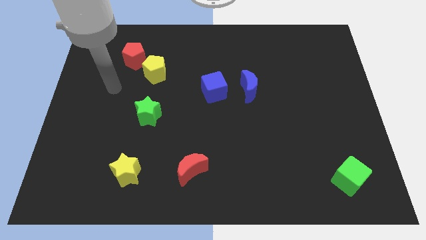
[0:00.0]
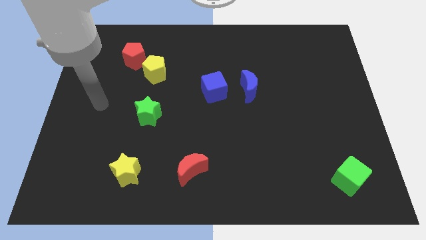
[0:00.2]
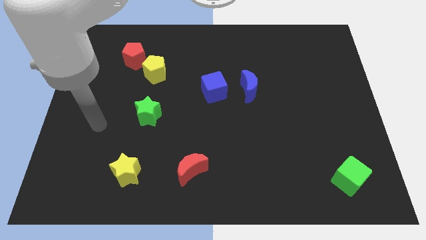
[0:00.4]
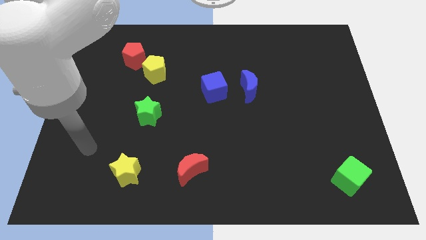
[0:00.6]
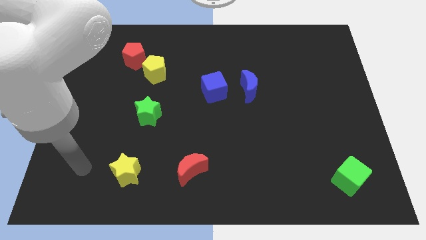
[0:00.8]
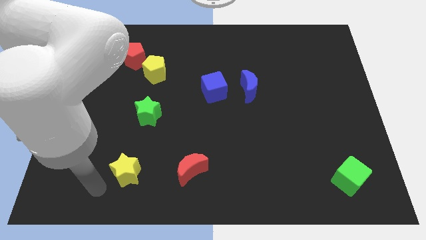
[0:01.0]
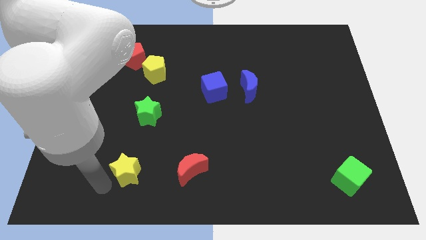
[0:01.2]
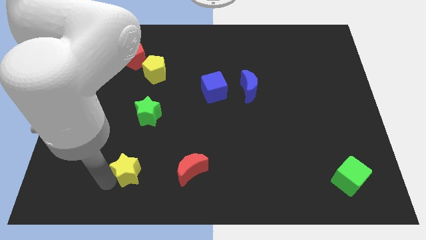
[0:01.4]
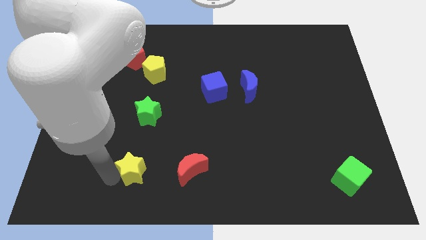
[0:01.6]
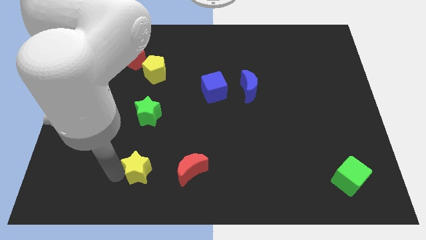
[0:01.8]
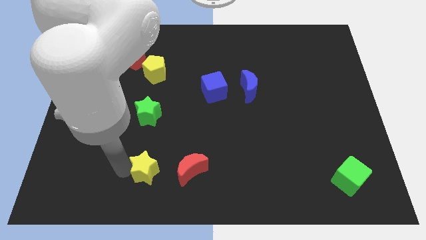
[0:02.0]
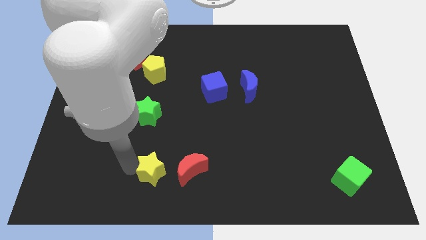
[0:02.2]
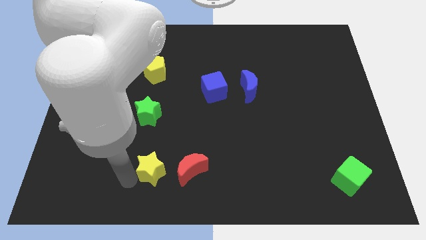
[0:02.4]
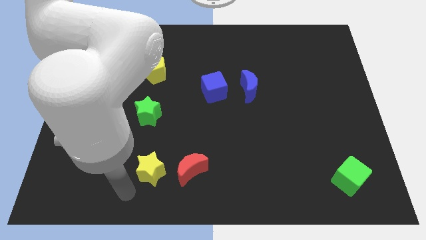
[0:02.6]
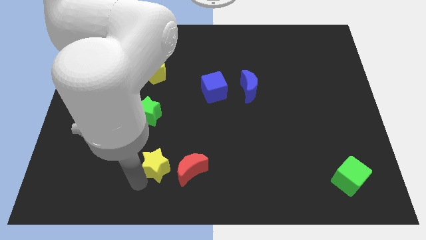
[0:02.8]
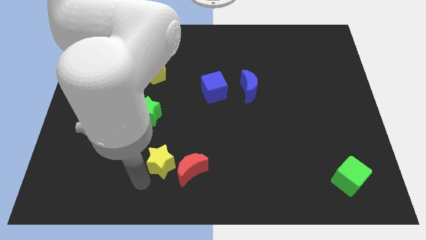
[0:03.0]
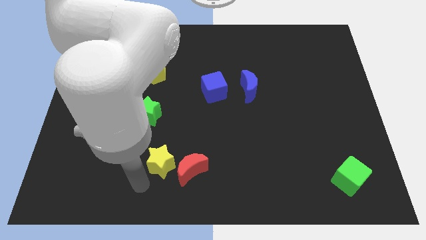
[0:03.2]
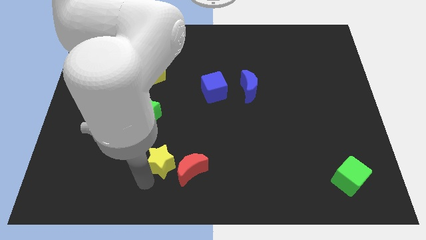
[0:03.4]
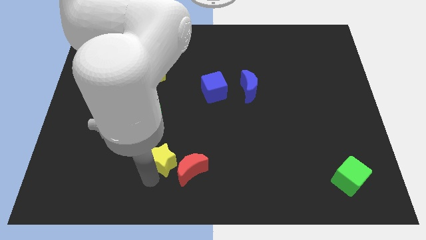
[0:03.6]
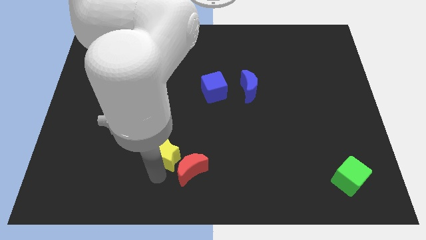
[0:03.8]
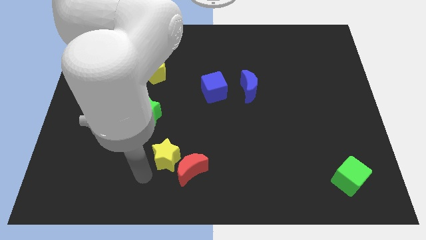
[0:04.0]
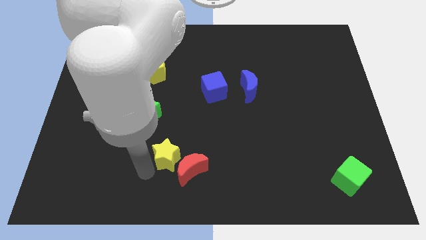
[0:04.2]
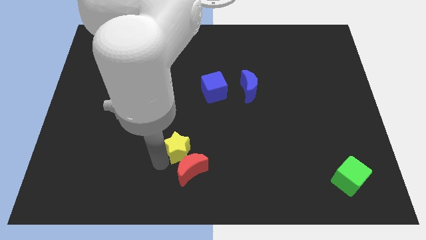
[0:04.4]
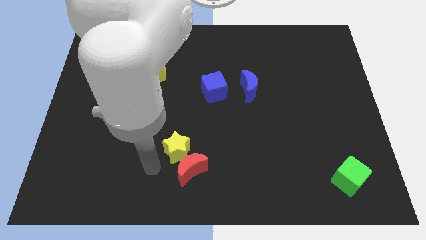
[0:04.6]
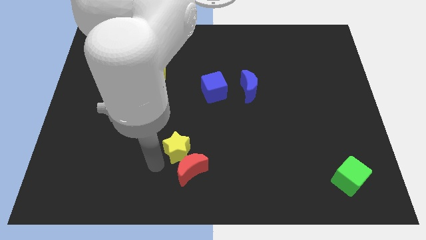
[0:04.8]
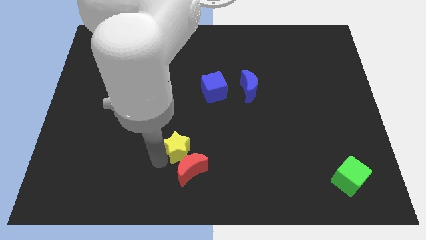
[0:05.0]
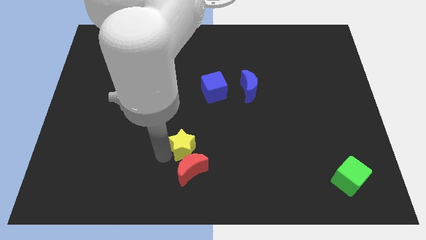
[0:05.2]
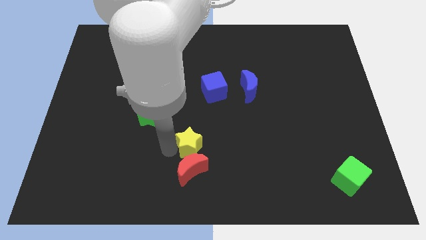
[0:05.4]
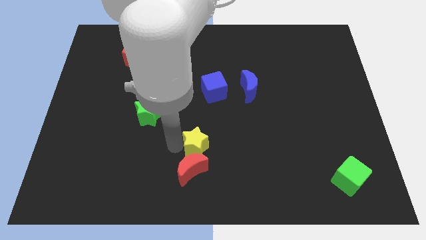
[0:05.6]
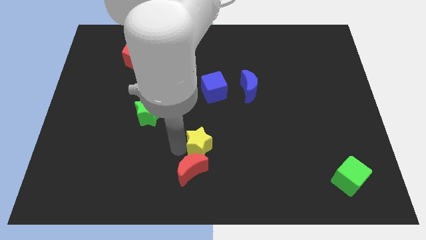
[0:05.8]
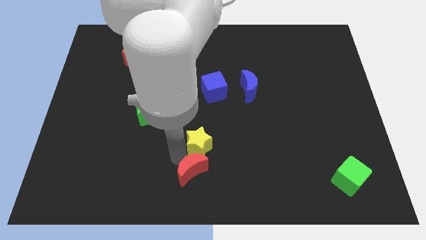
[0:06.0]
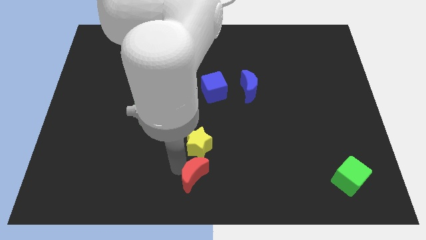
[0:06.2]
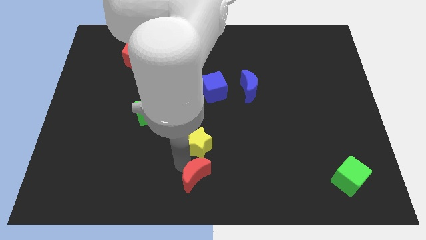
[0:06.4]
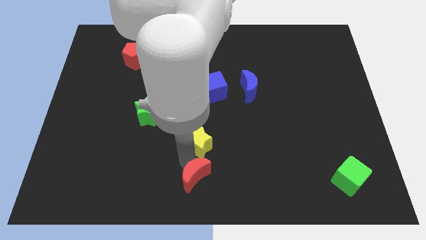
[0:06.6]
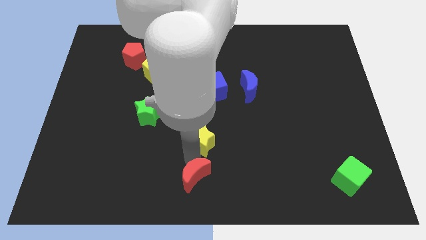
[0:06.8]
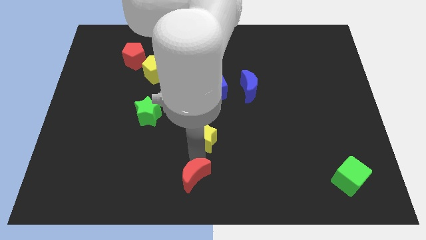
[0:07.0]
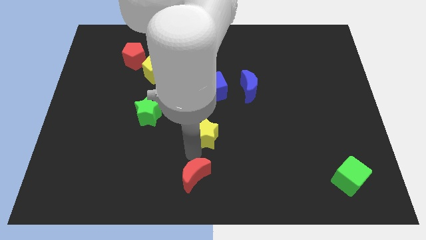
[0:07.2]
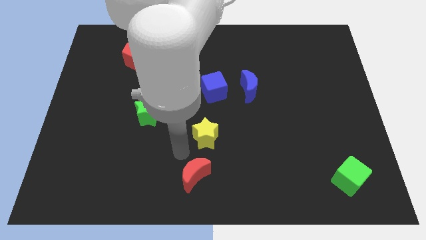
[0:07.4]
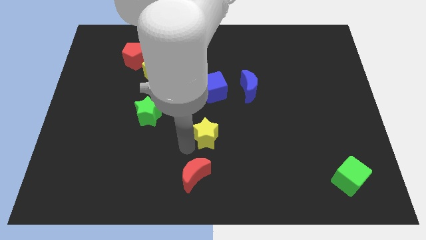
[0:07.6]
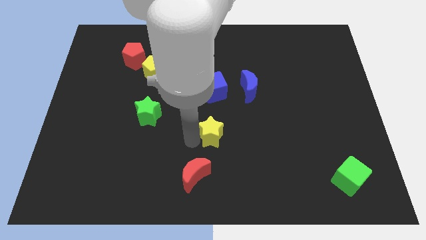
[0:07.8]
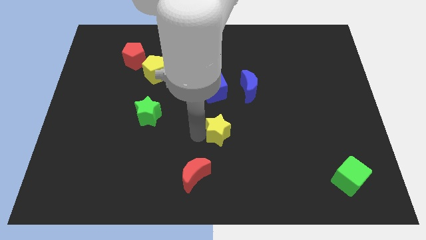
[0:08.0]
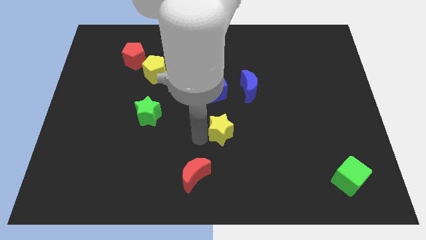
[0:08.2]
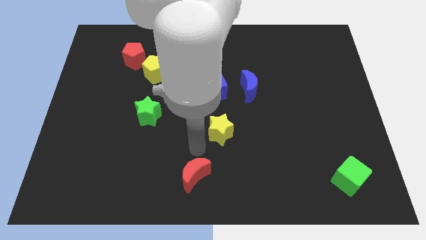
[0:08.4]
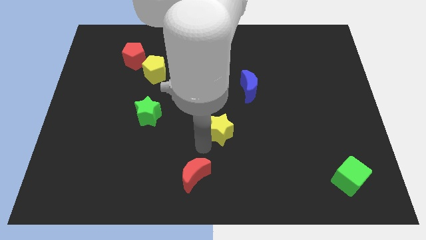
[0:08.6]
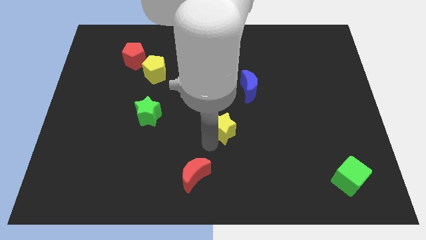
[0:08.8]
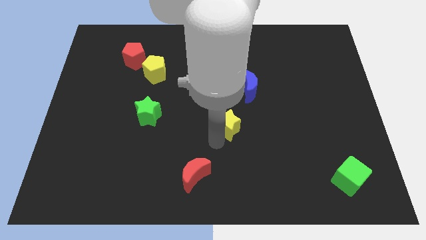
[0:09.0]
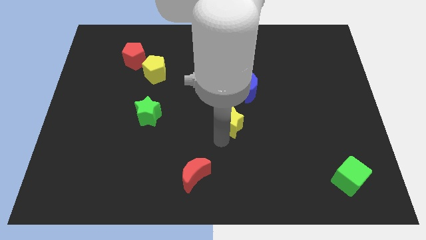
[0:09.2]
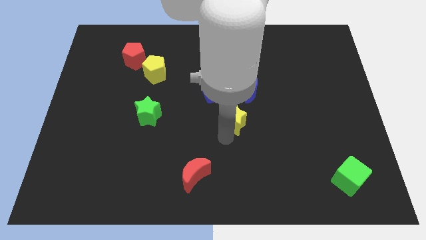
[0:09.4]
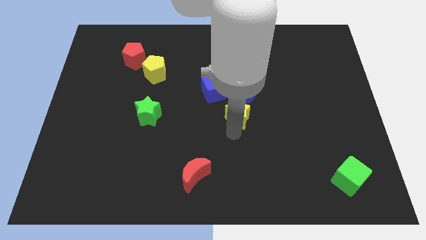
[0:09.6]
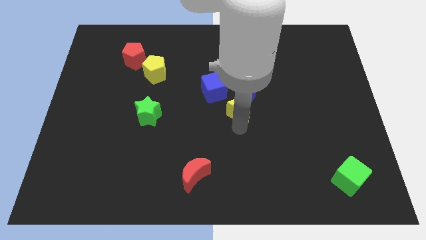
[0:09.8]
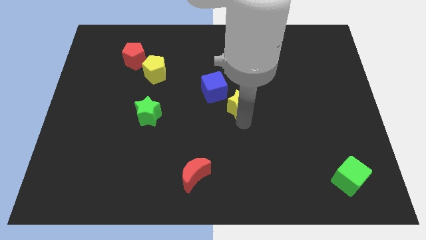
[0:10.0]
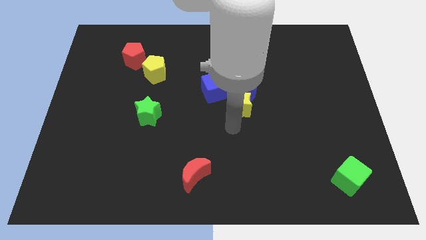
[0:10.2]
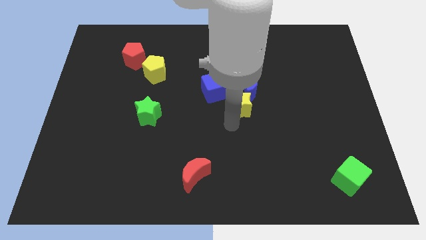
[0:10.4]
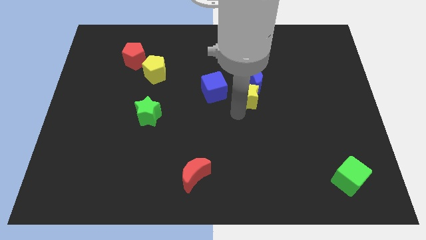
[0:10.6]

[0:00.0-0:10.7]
put the yellow star to the blue moon

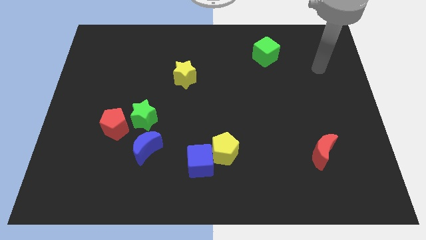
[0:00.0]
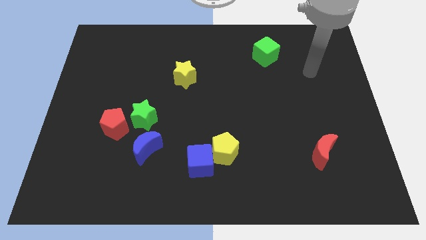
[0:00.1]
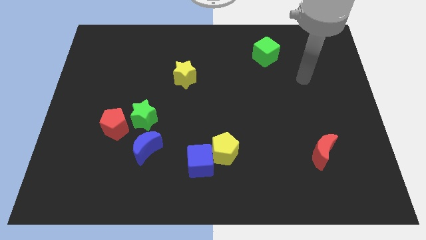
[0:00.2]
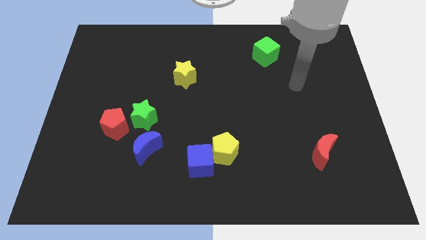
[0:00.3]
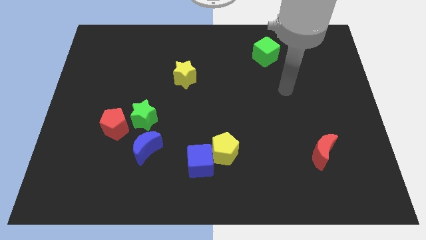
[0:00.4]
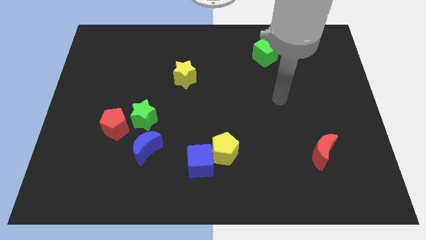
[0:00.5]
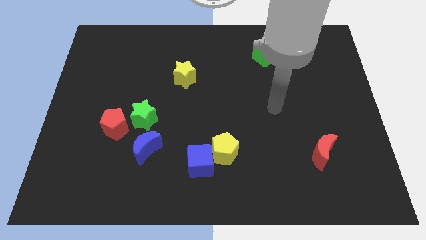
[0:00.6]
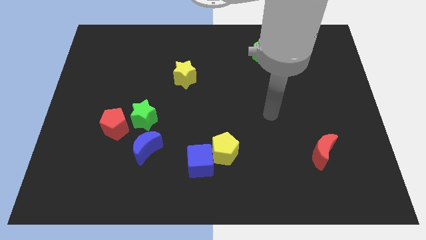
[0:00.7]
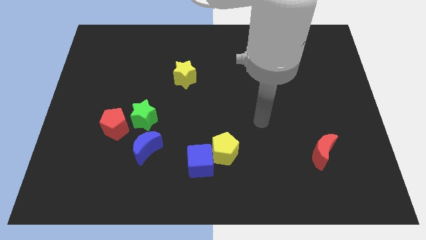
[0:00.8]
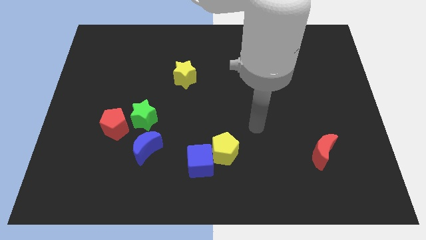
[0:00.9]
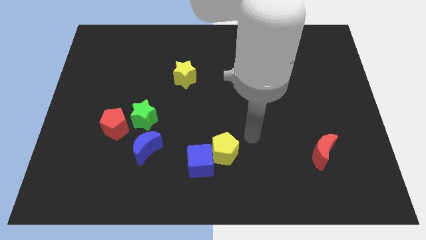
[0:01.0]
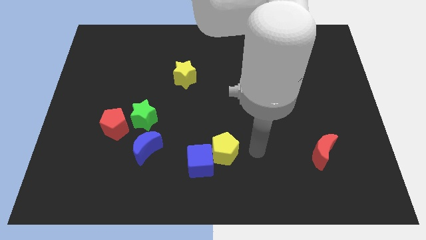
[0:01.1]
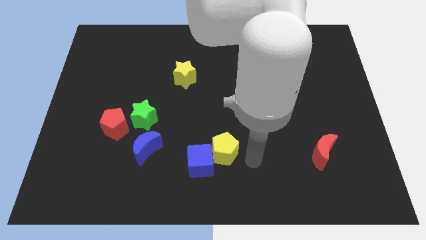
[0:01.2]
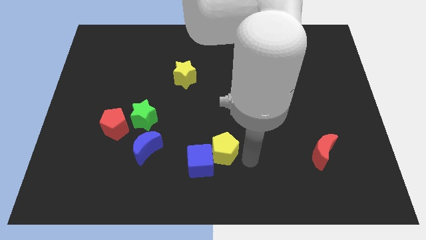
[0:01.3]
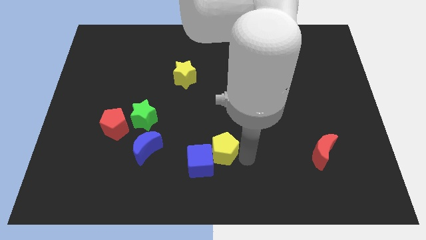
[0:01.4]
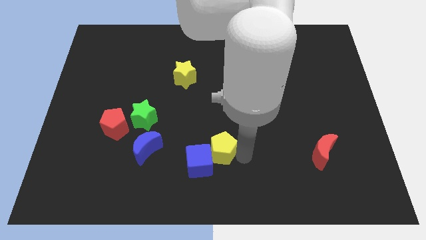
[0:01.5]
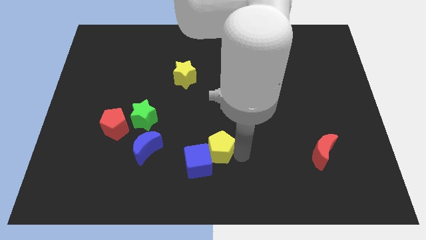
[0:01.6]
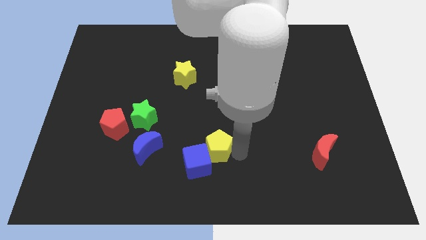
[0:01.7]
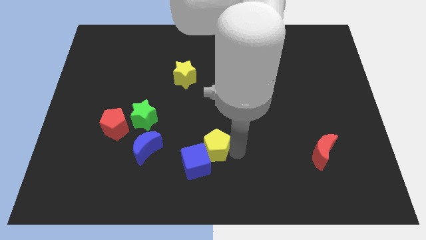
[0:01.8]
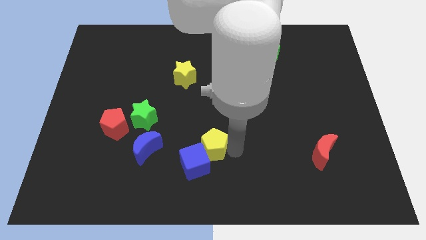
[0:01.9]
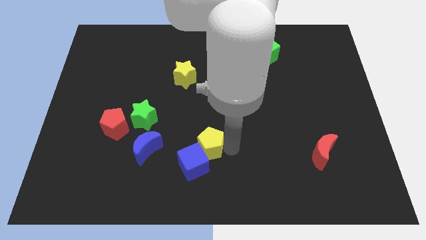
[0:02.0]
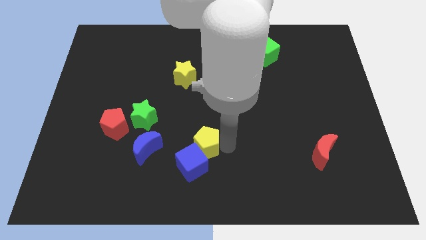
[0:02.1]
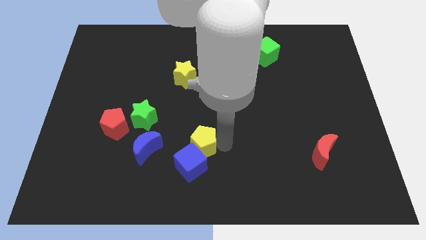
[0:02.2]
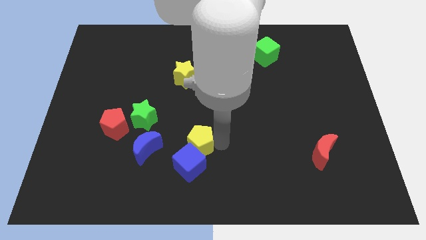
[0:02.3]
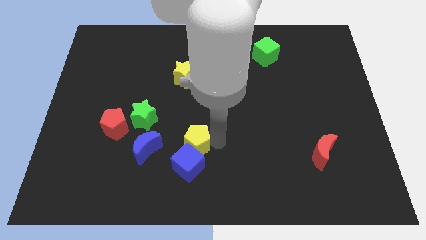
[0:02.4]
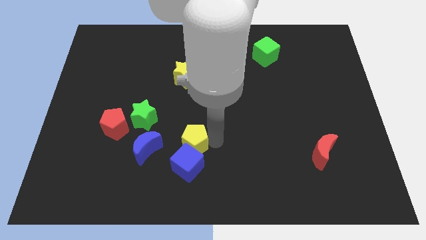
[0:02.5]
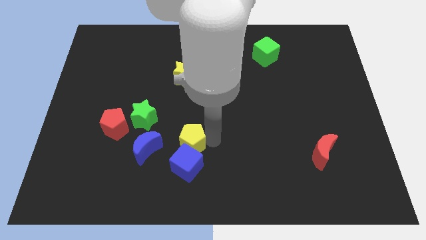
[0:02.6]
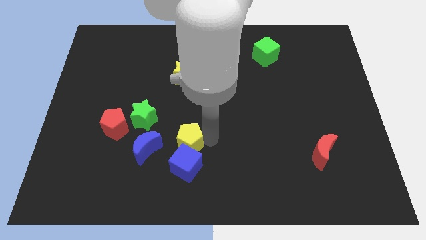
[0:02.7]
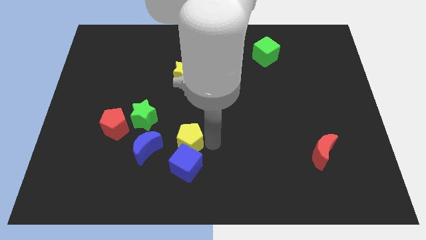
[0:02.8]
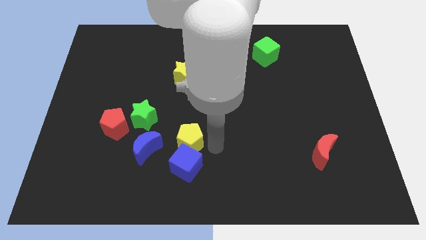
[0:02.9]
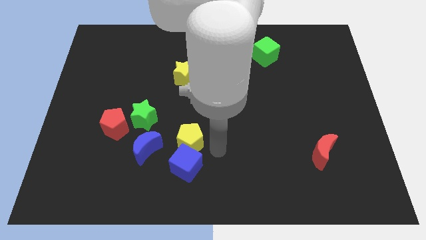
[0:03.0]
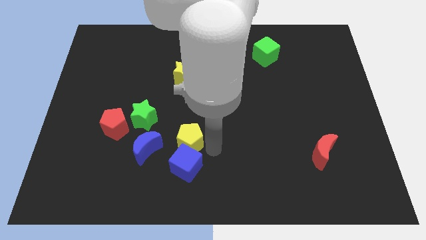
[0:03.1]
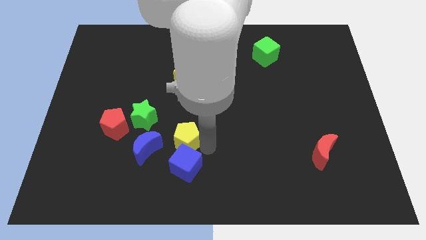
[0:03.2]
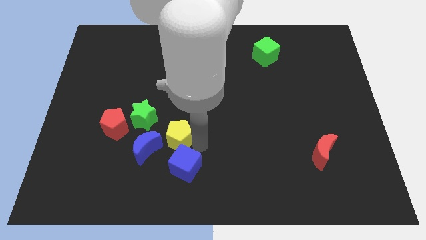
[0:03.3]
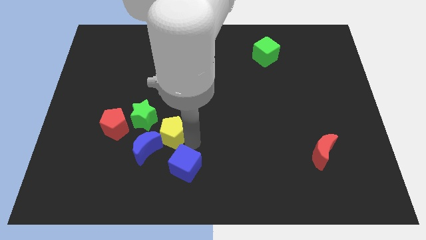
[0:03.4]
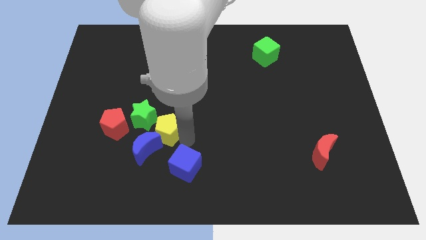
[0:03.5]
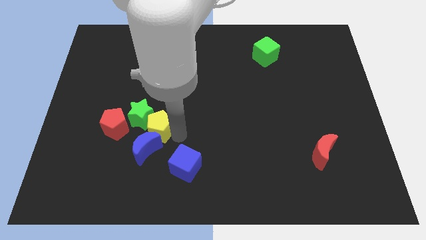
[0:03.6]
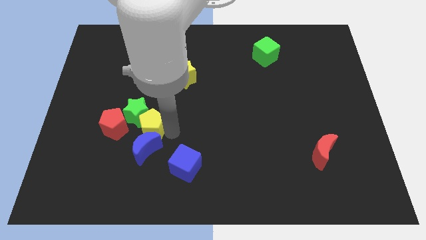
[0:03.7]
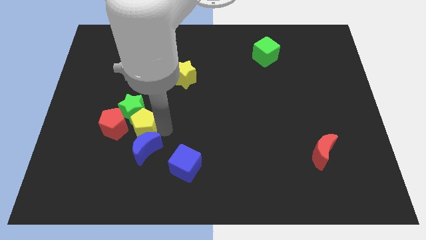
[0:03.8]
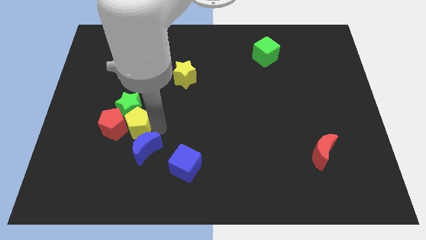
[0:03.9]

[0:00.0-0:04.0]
put the yellow pentagon close to the red pentagon
